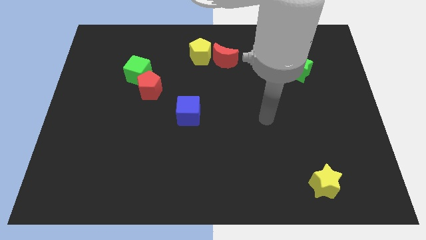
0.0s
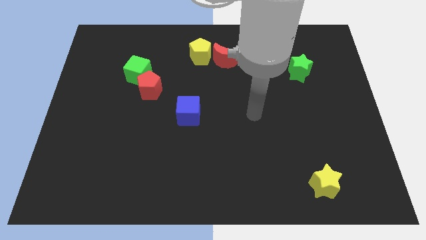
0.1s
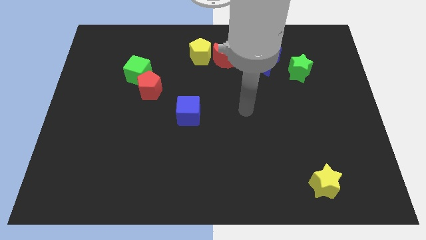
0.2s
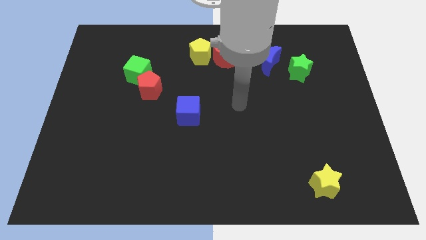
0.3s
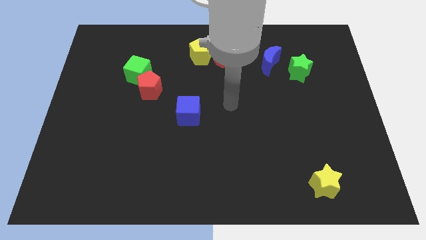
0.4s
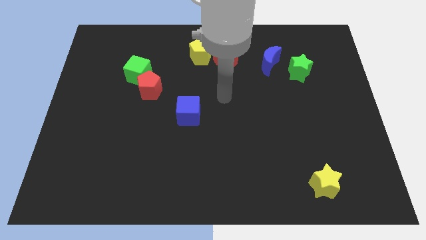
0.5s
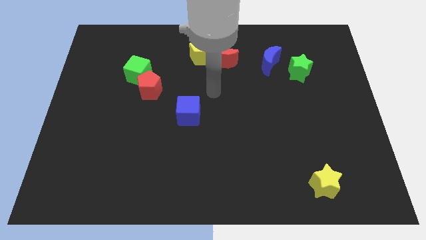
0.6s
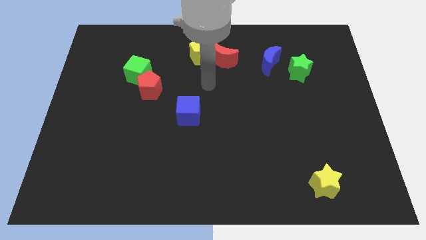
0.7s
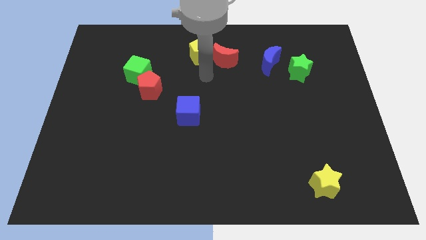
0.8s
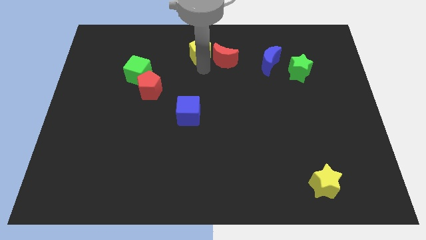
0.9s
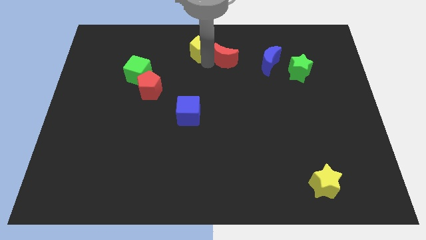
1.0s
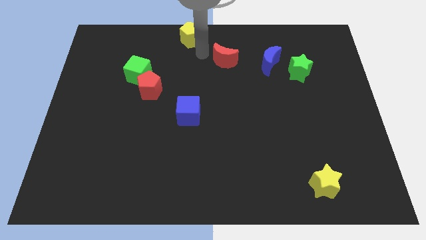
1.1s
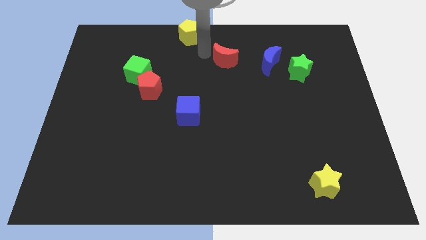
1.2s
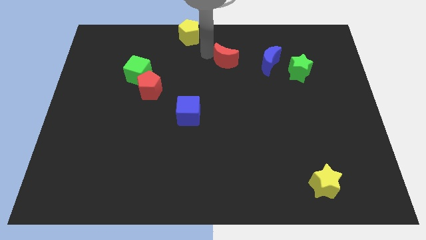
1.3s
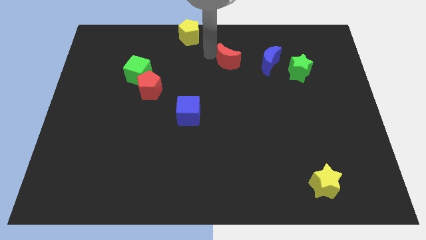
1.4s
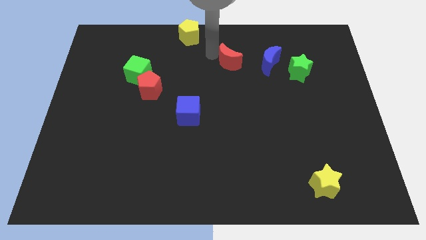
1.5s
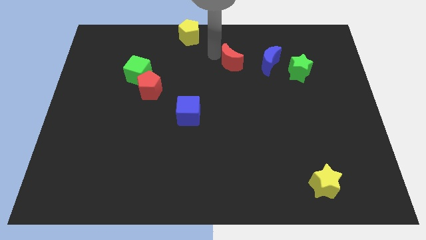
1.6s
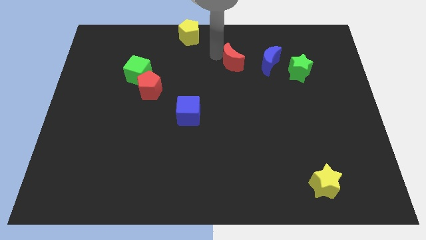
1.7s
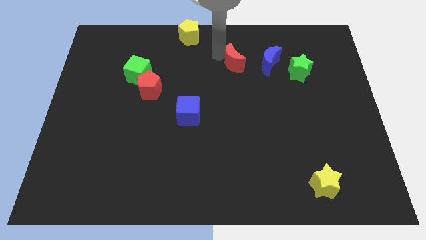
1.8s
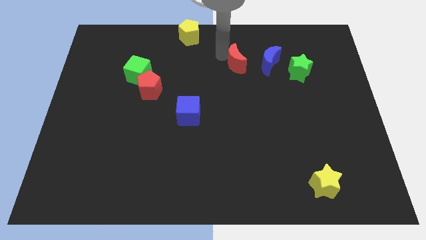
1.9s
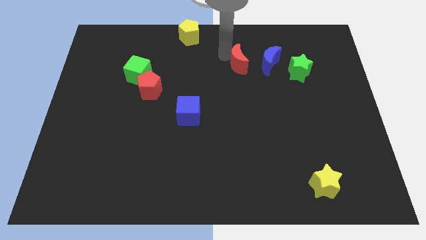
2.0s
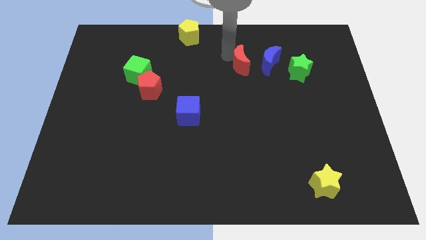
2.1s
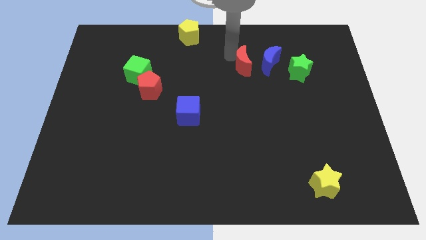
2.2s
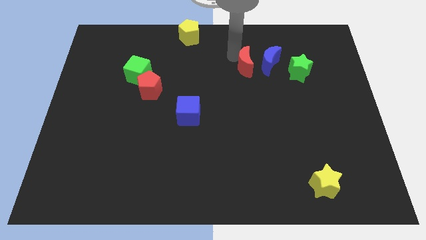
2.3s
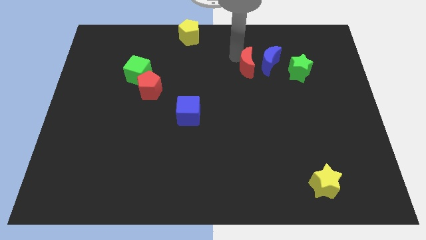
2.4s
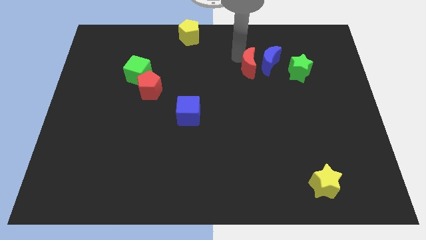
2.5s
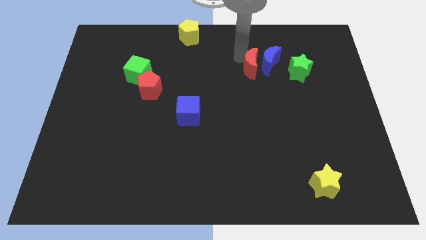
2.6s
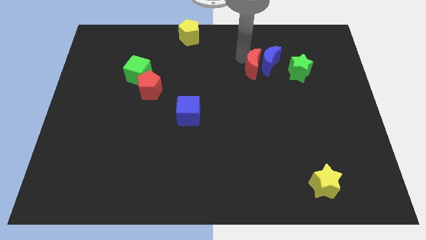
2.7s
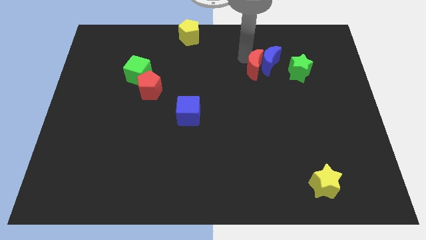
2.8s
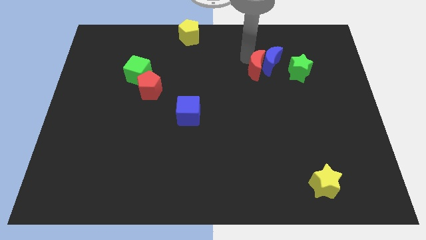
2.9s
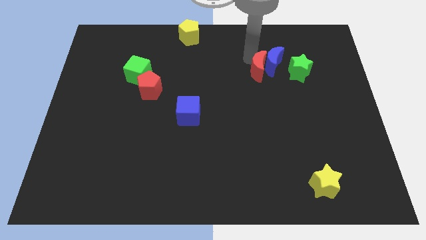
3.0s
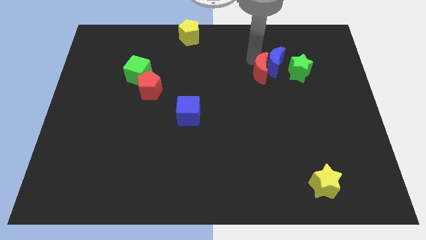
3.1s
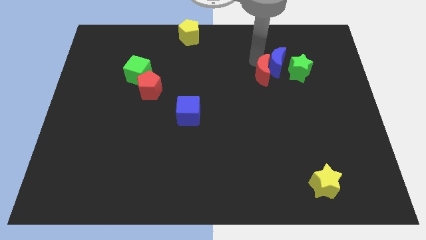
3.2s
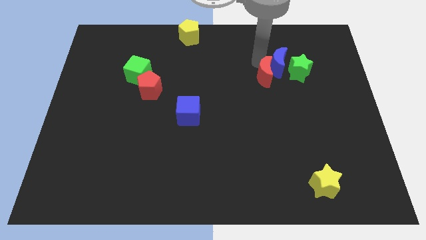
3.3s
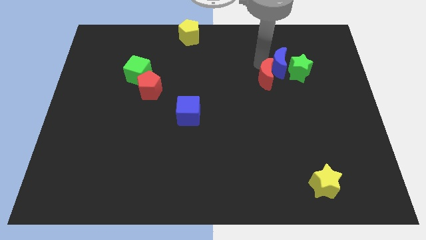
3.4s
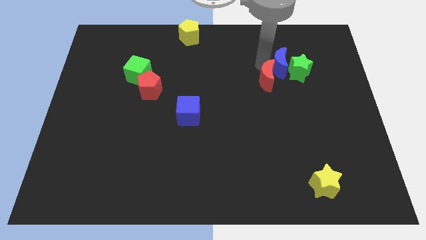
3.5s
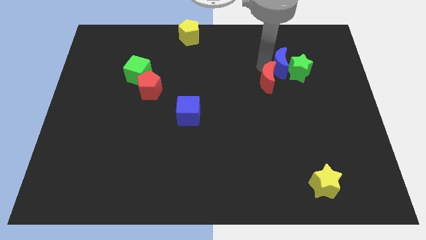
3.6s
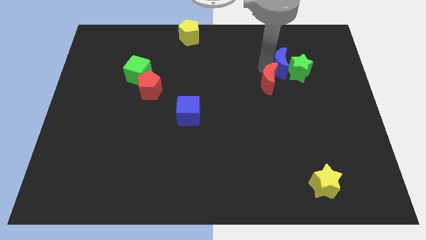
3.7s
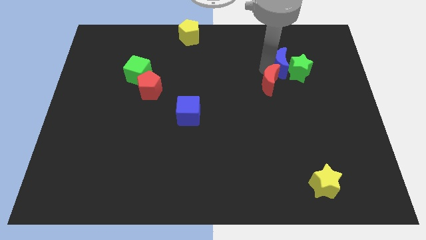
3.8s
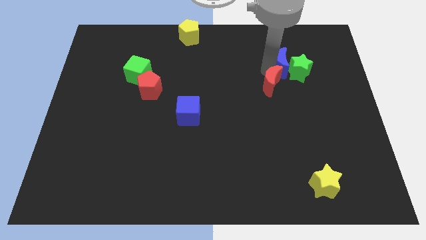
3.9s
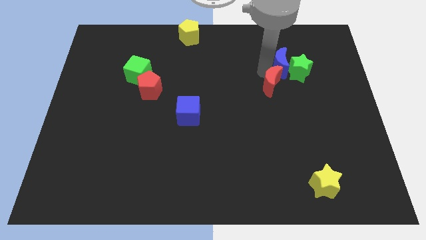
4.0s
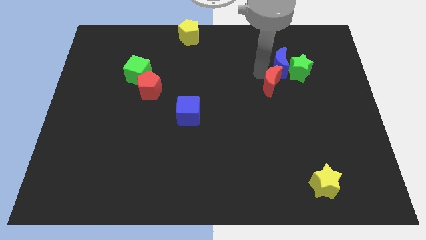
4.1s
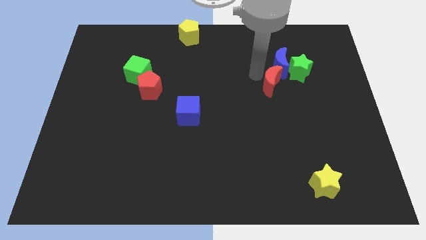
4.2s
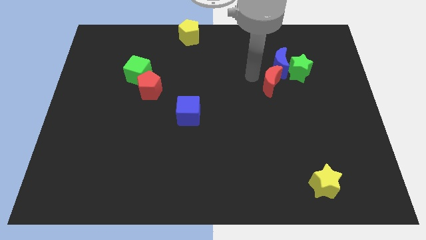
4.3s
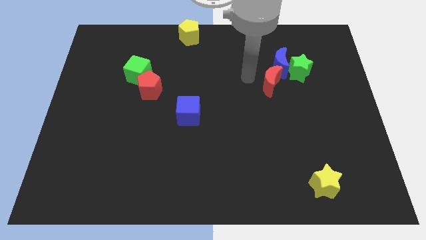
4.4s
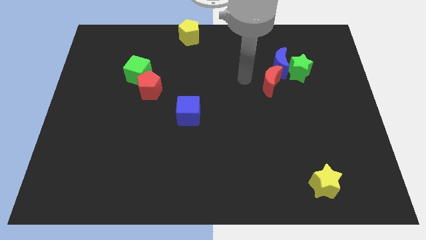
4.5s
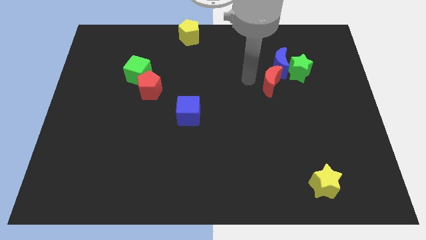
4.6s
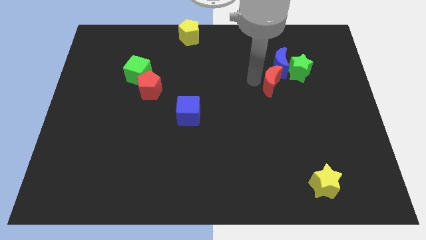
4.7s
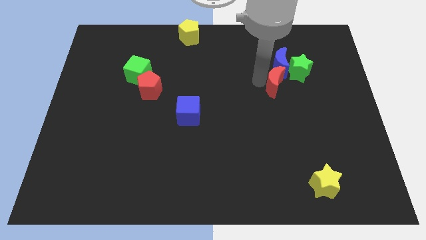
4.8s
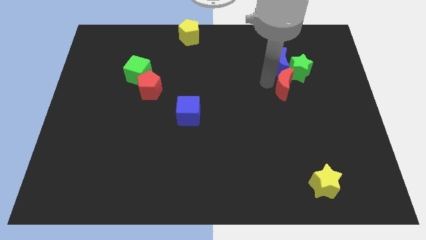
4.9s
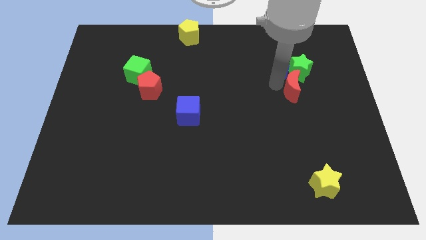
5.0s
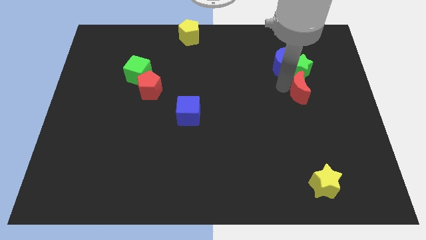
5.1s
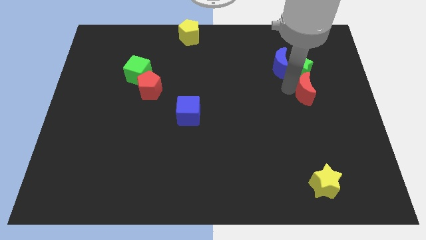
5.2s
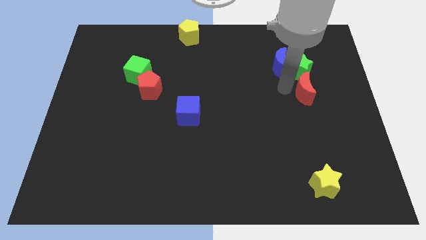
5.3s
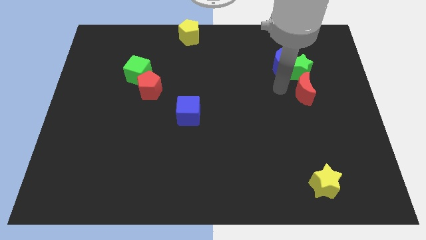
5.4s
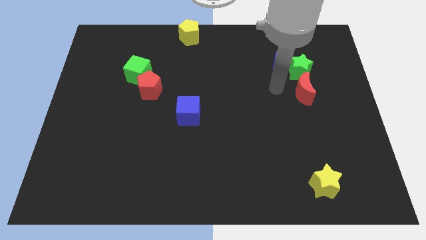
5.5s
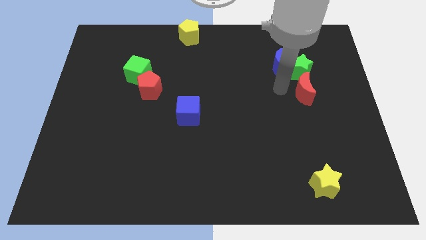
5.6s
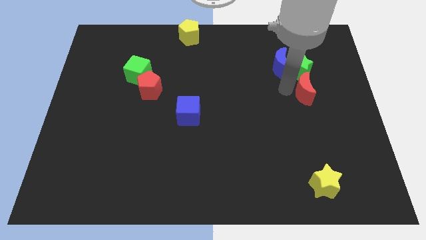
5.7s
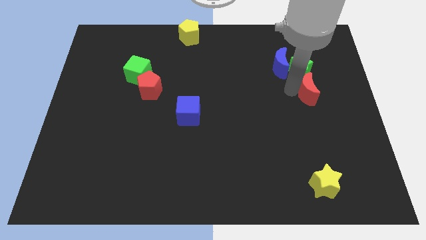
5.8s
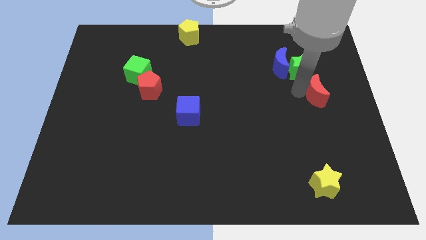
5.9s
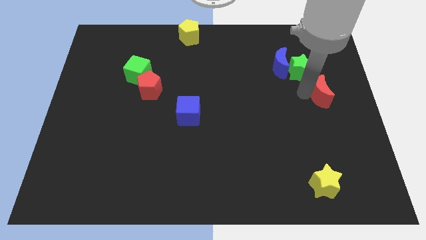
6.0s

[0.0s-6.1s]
slide the red moon to the right side
